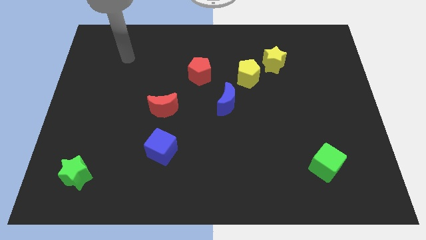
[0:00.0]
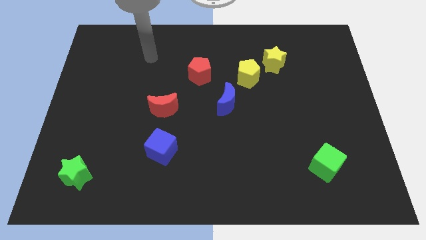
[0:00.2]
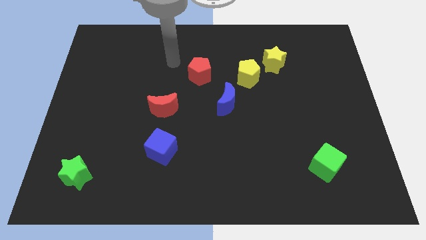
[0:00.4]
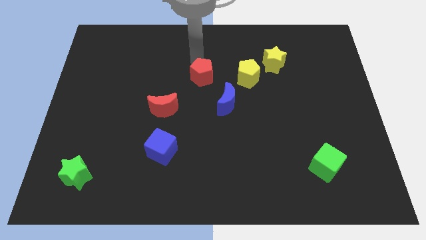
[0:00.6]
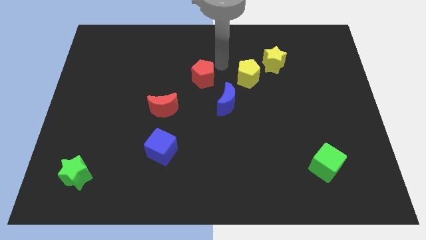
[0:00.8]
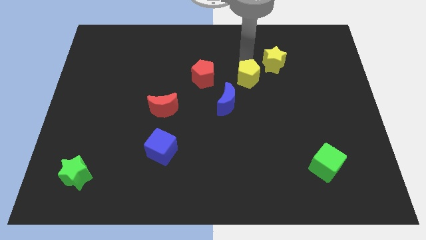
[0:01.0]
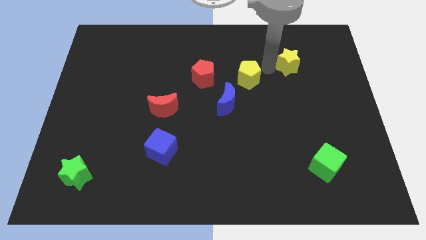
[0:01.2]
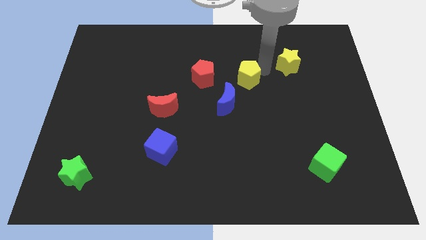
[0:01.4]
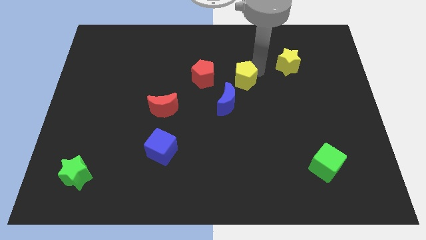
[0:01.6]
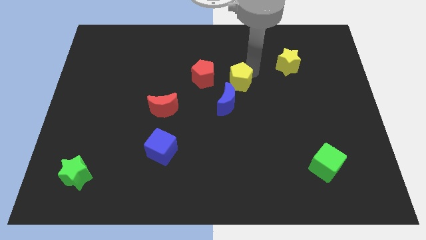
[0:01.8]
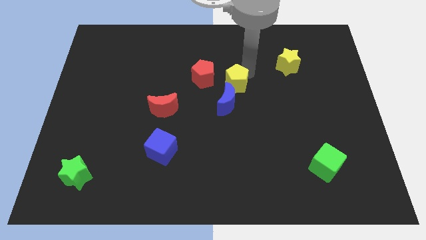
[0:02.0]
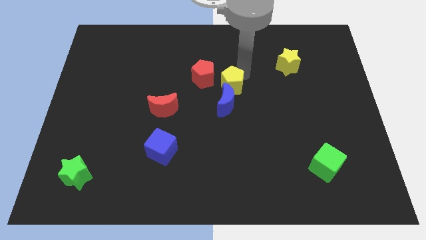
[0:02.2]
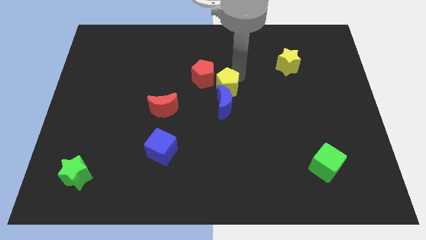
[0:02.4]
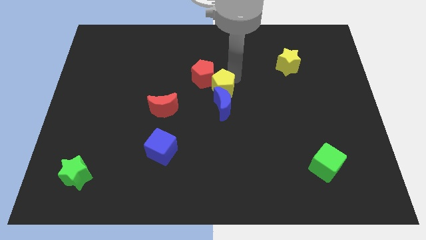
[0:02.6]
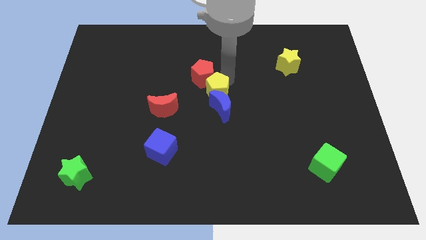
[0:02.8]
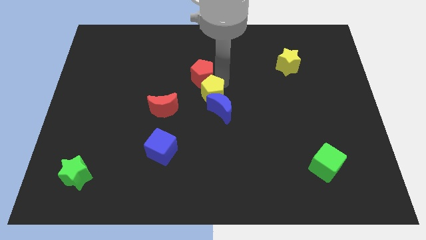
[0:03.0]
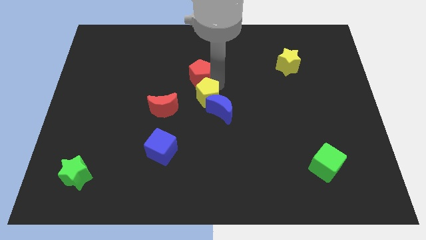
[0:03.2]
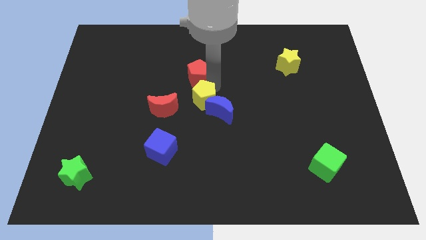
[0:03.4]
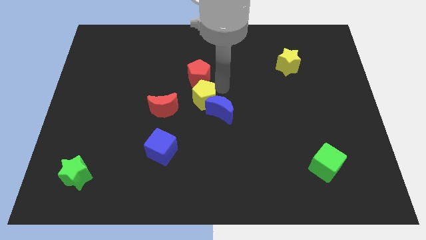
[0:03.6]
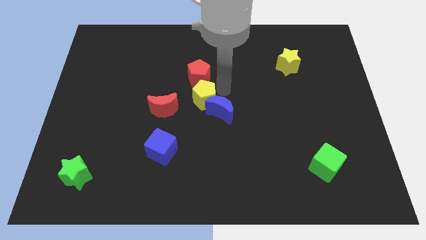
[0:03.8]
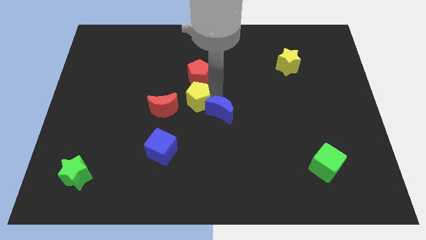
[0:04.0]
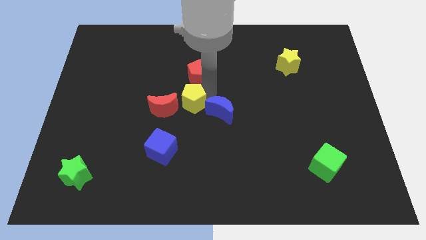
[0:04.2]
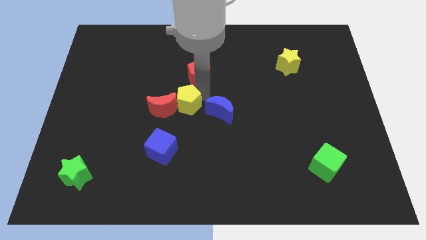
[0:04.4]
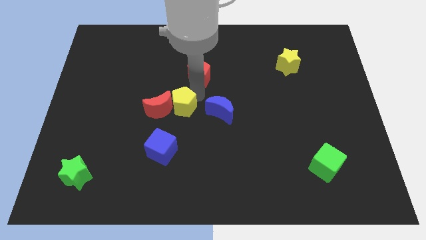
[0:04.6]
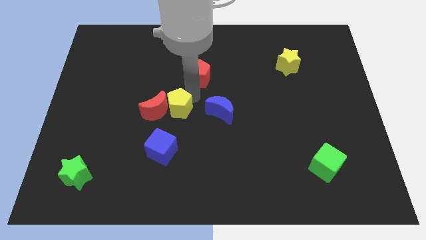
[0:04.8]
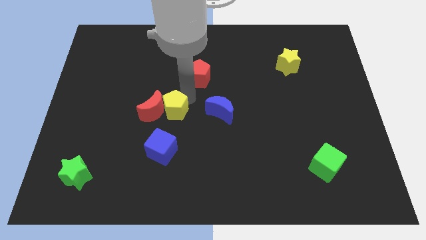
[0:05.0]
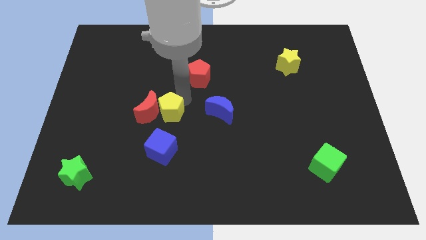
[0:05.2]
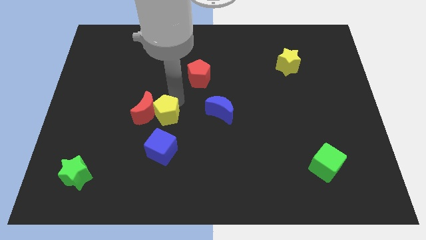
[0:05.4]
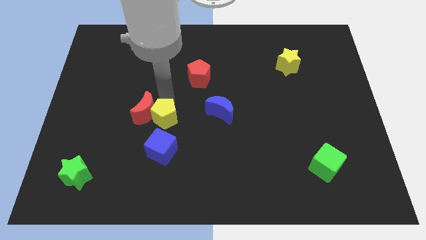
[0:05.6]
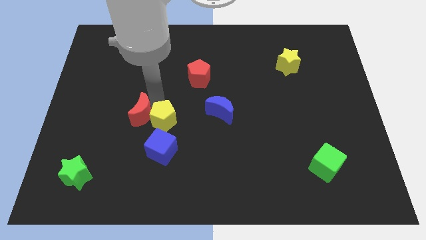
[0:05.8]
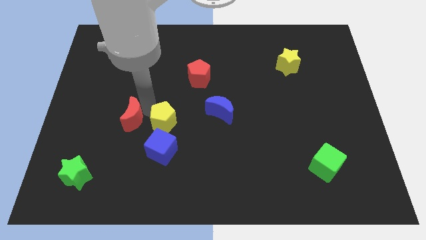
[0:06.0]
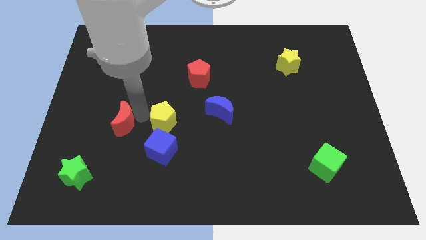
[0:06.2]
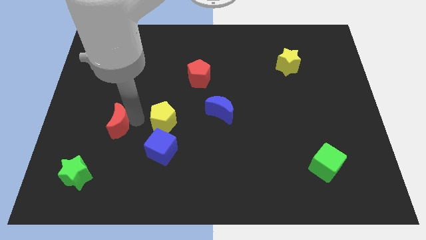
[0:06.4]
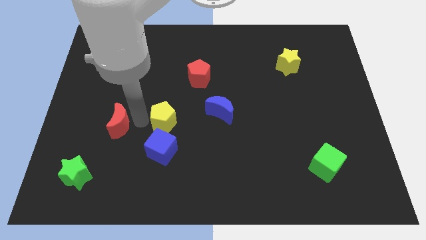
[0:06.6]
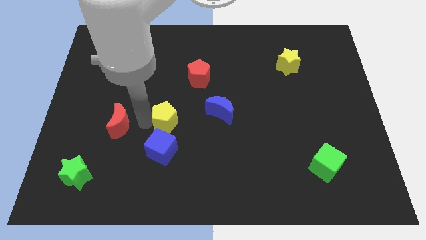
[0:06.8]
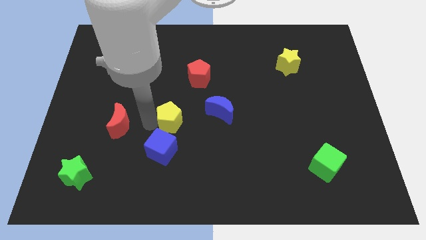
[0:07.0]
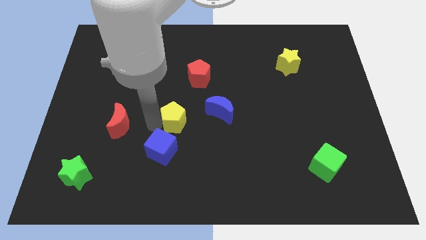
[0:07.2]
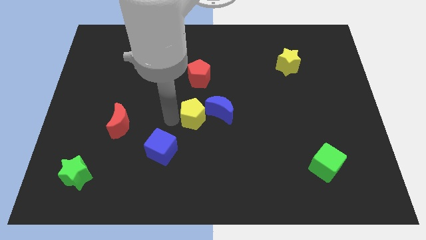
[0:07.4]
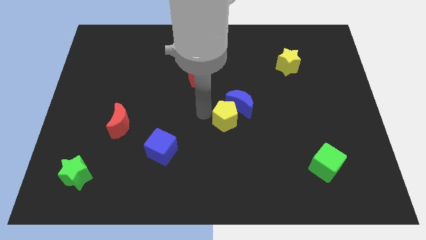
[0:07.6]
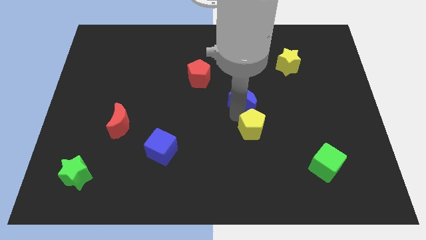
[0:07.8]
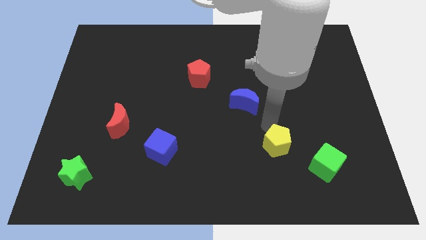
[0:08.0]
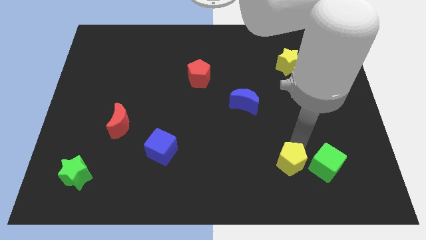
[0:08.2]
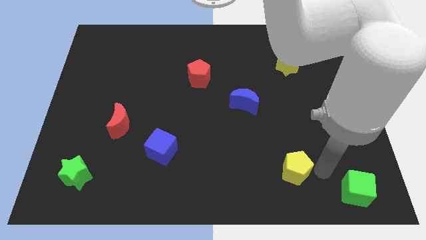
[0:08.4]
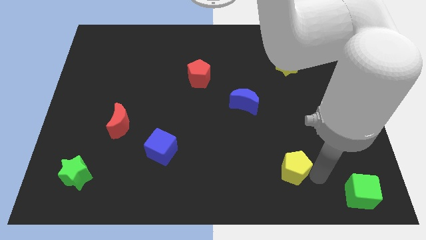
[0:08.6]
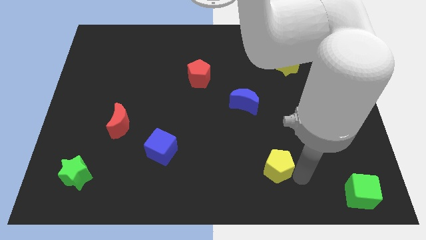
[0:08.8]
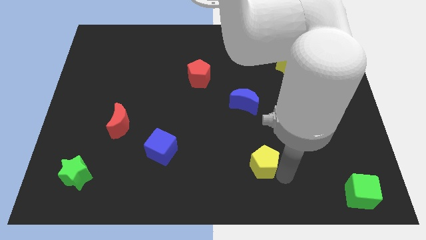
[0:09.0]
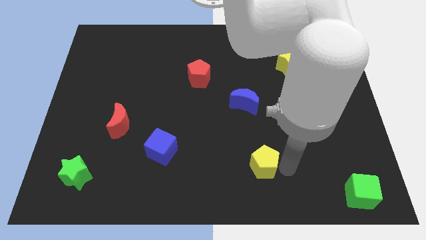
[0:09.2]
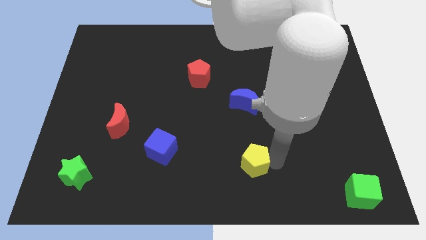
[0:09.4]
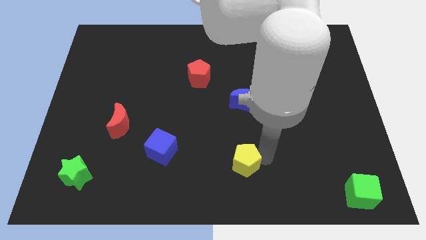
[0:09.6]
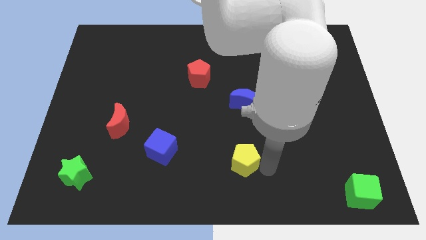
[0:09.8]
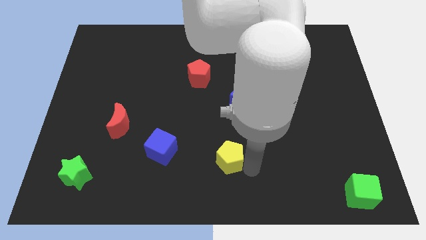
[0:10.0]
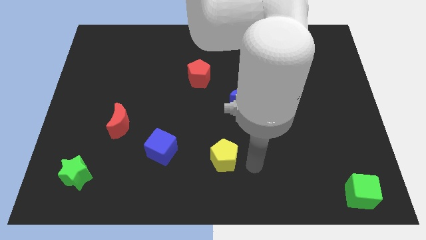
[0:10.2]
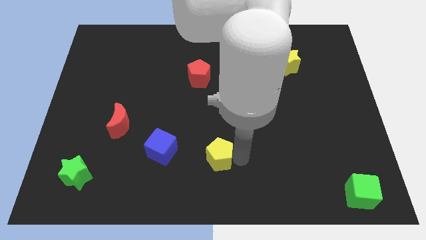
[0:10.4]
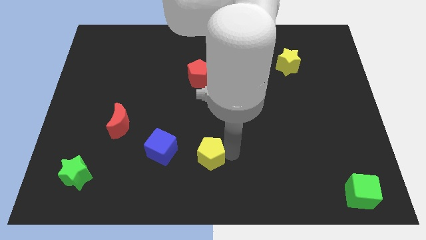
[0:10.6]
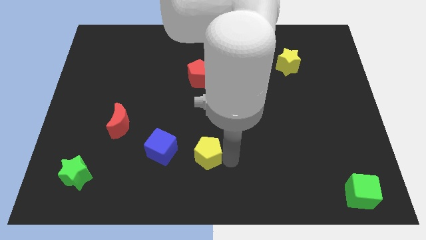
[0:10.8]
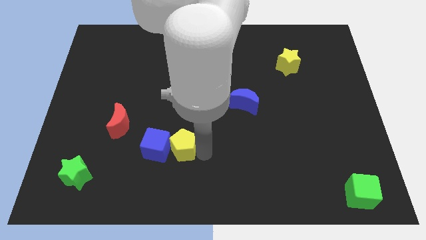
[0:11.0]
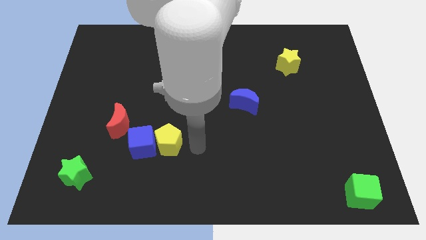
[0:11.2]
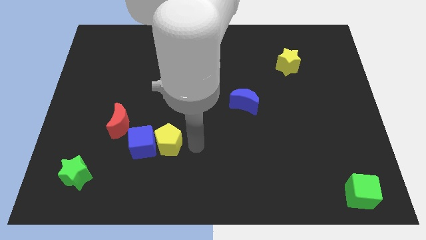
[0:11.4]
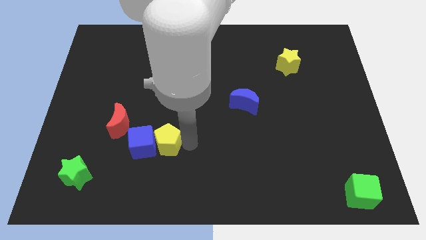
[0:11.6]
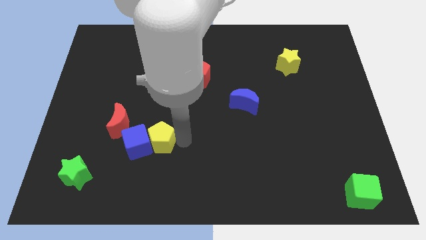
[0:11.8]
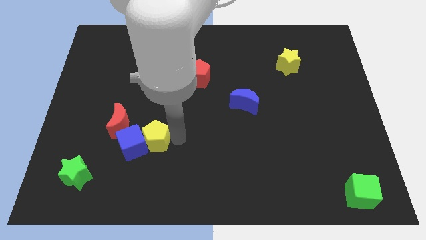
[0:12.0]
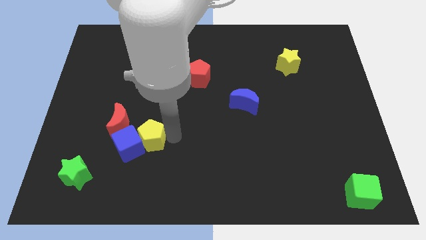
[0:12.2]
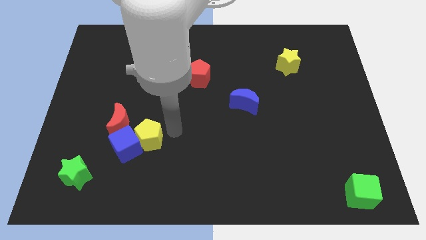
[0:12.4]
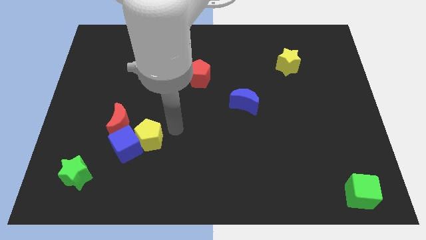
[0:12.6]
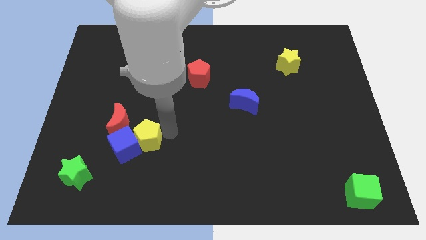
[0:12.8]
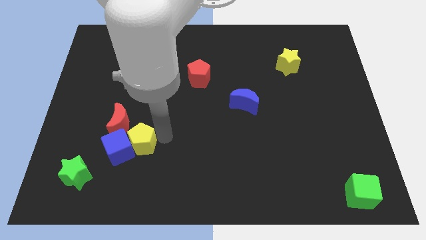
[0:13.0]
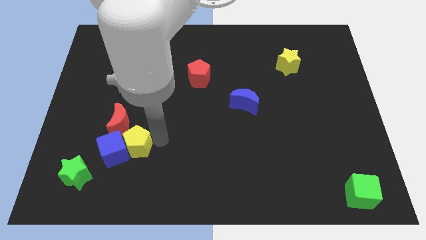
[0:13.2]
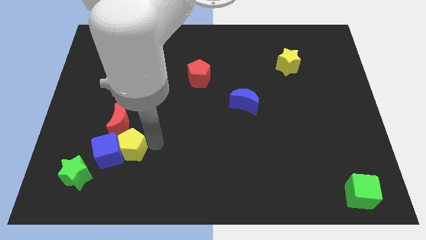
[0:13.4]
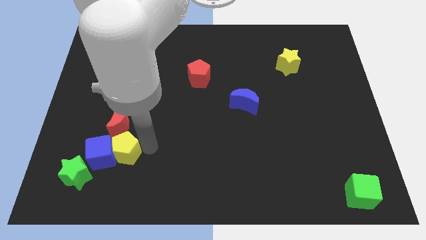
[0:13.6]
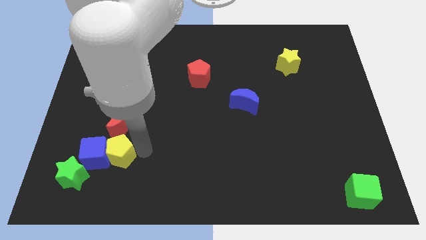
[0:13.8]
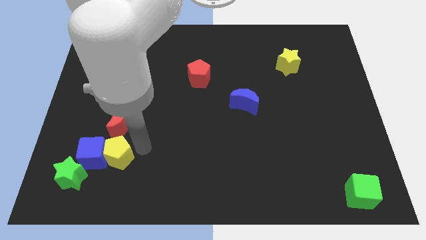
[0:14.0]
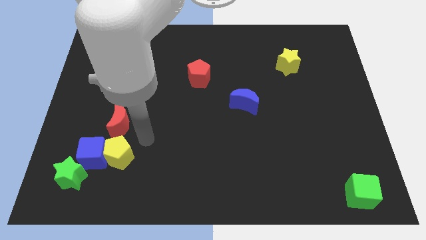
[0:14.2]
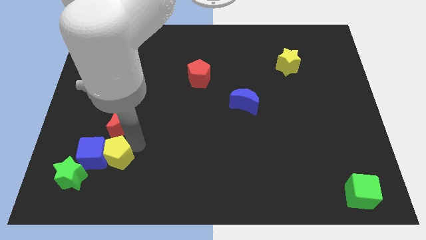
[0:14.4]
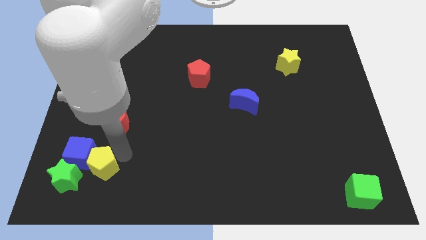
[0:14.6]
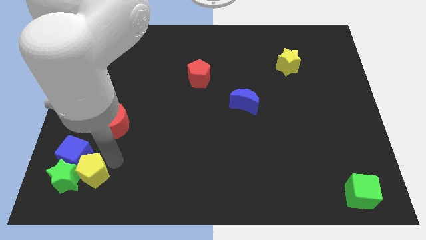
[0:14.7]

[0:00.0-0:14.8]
move the yellow pentagon to the green star
